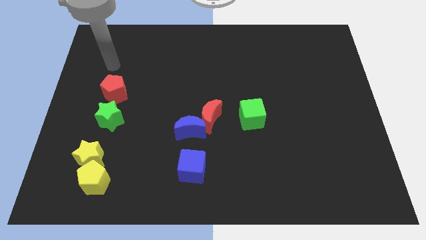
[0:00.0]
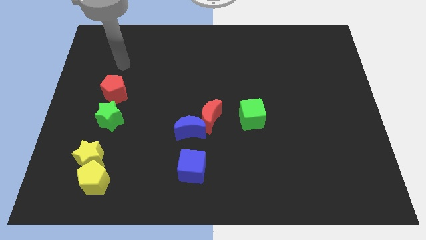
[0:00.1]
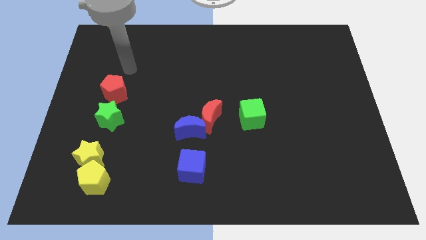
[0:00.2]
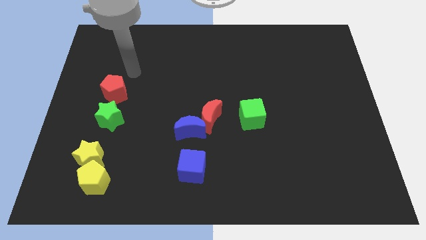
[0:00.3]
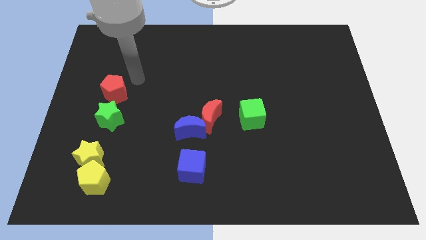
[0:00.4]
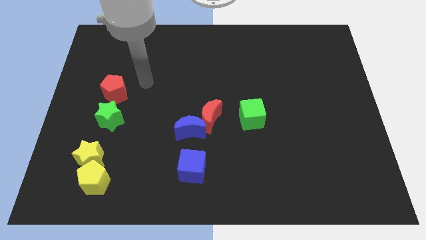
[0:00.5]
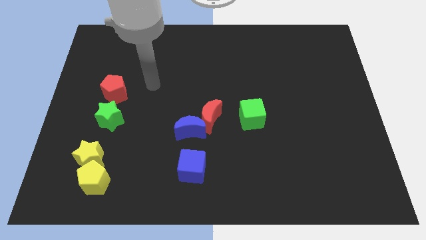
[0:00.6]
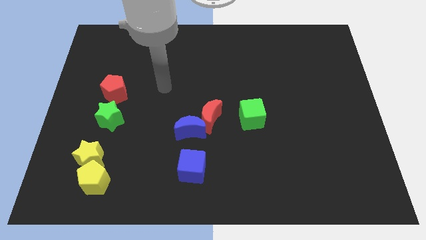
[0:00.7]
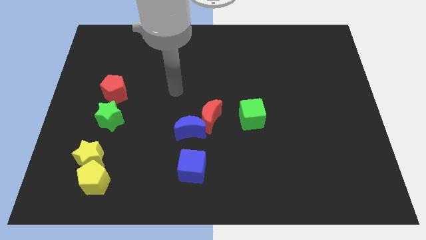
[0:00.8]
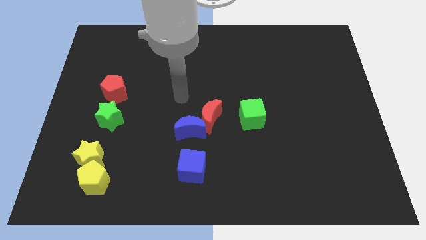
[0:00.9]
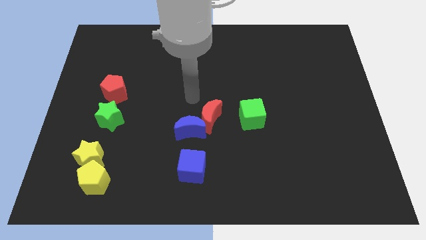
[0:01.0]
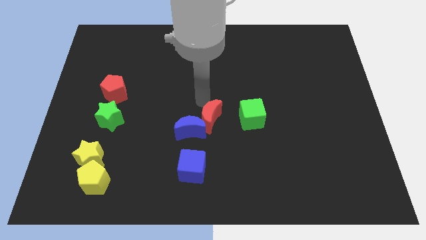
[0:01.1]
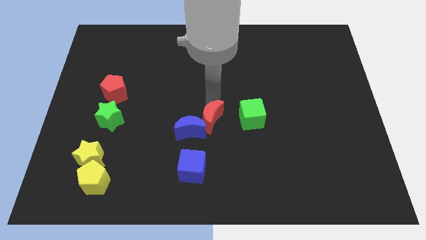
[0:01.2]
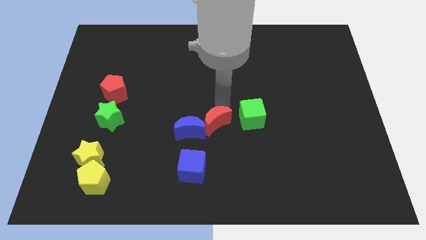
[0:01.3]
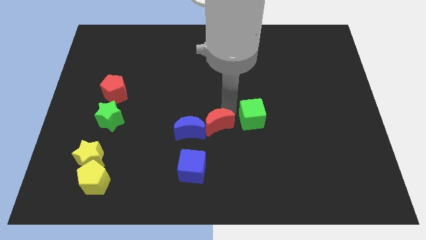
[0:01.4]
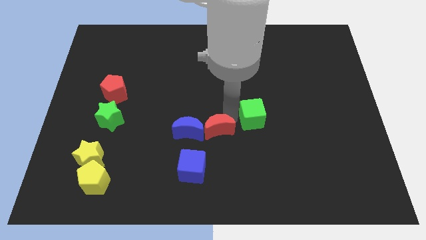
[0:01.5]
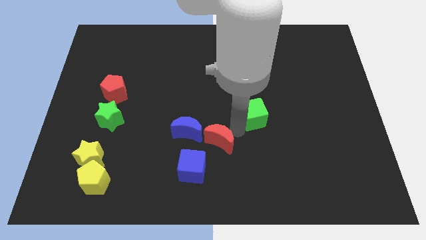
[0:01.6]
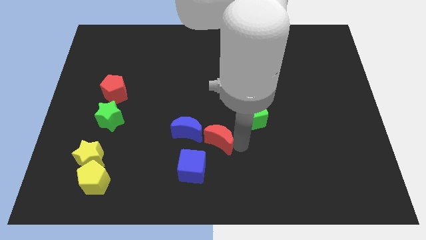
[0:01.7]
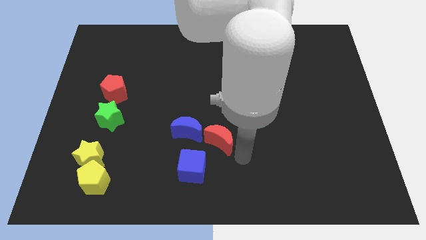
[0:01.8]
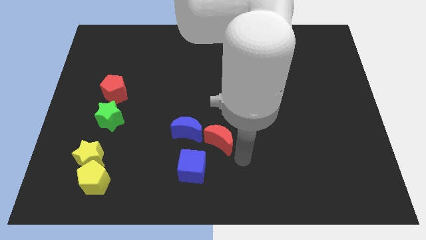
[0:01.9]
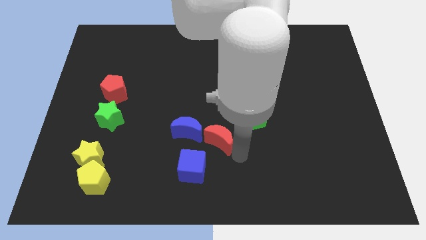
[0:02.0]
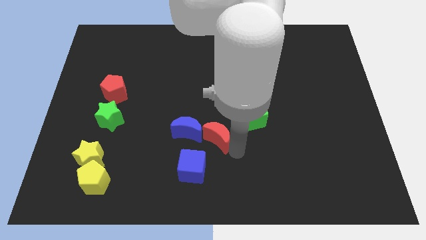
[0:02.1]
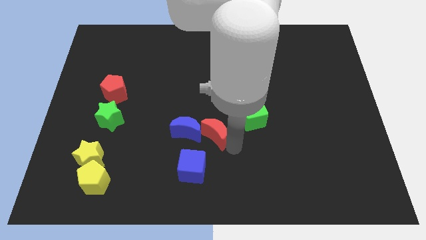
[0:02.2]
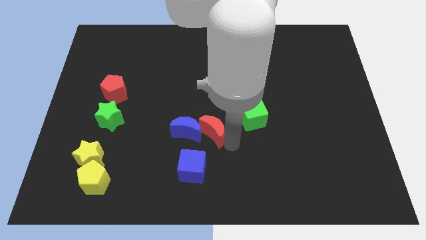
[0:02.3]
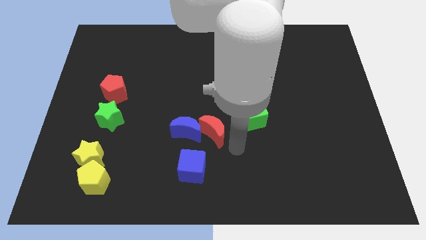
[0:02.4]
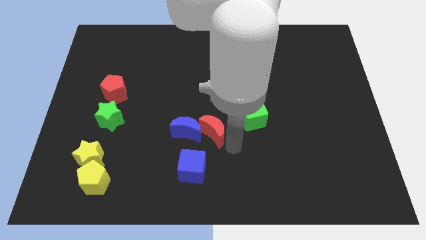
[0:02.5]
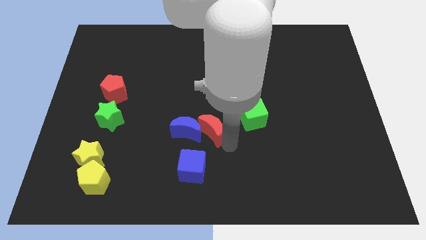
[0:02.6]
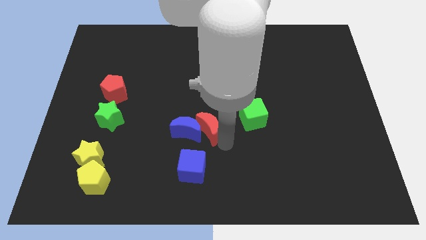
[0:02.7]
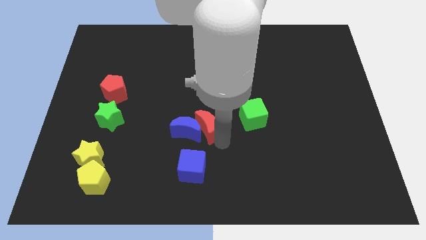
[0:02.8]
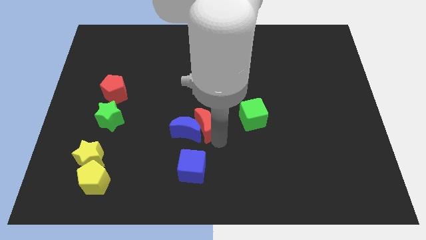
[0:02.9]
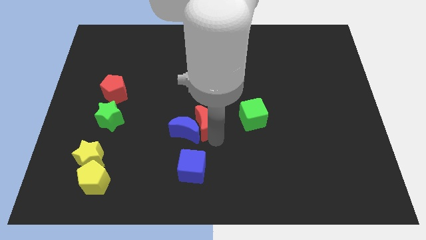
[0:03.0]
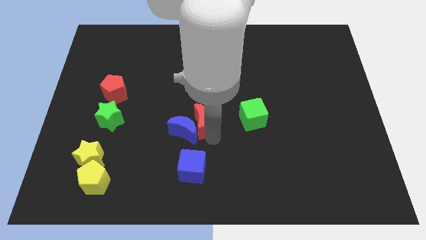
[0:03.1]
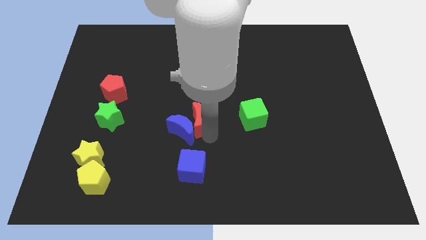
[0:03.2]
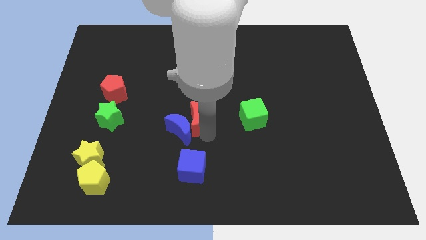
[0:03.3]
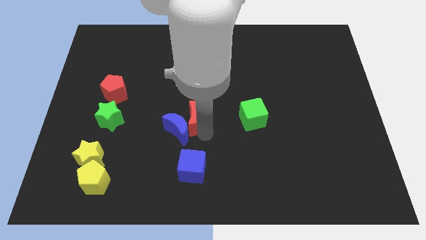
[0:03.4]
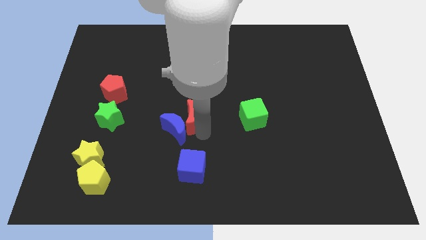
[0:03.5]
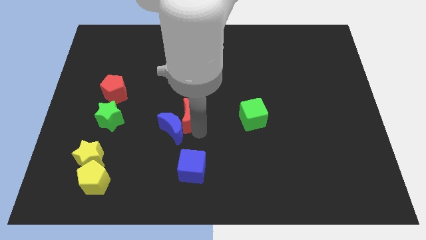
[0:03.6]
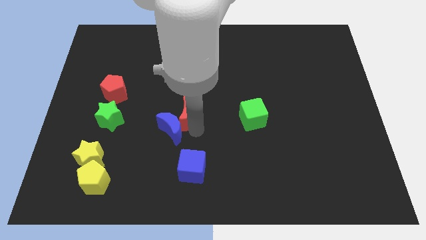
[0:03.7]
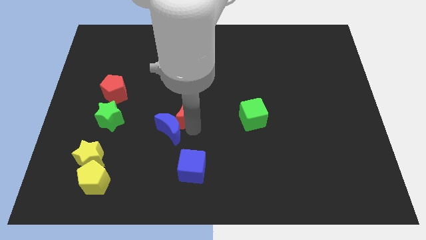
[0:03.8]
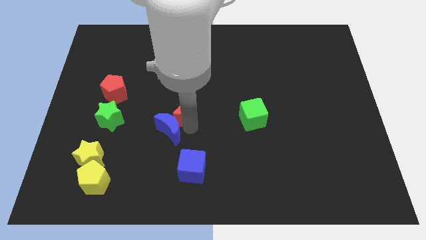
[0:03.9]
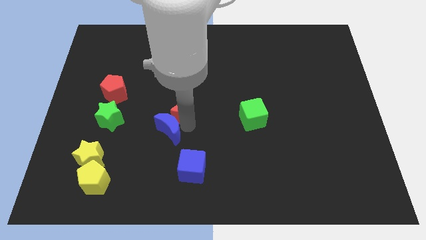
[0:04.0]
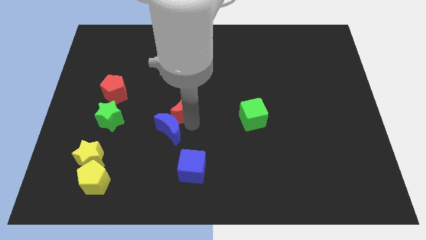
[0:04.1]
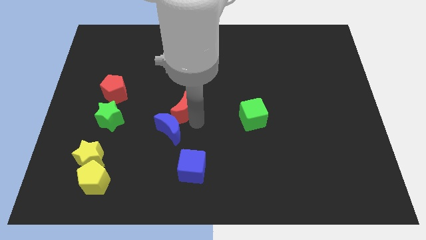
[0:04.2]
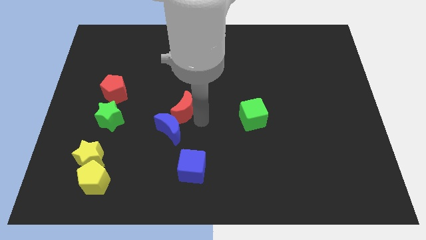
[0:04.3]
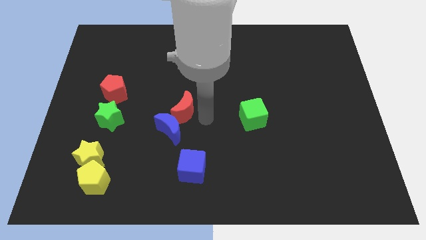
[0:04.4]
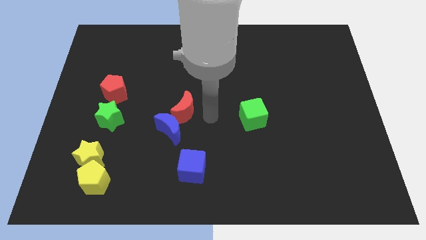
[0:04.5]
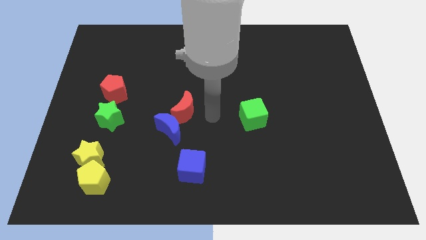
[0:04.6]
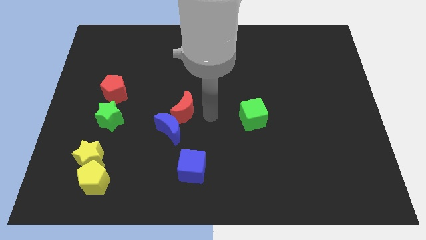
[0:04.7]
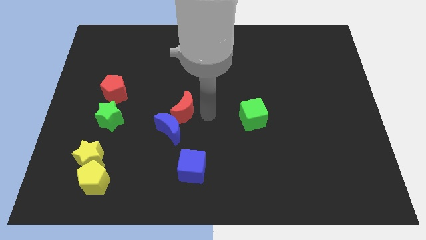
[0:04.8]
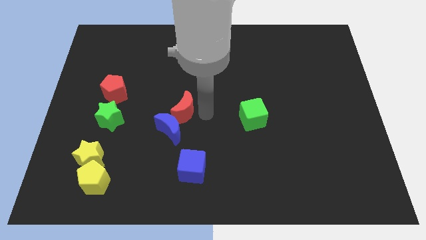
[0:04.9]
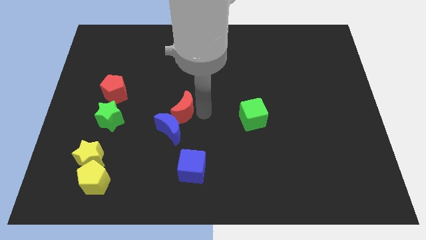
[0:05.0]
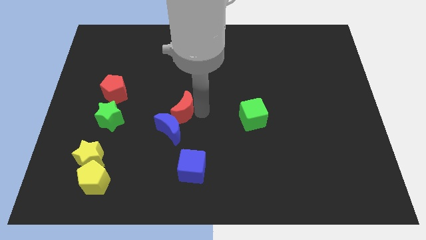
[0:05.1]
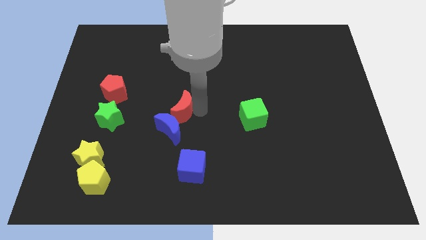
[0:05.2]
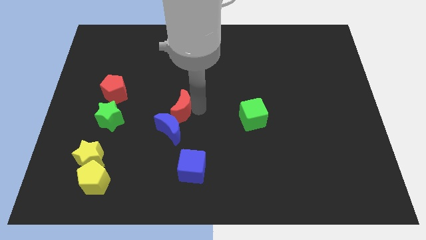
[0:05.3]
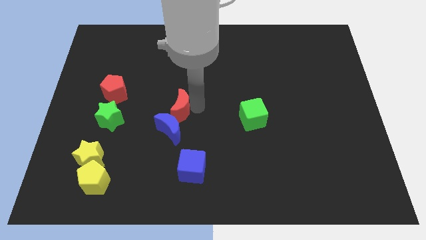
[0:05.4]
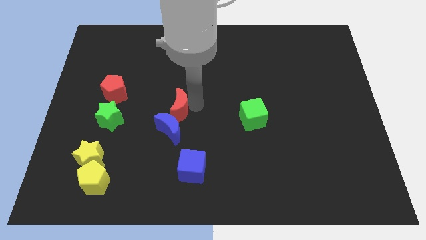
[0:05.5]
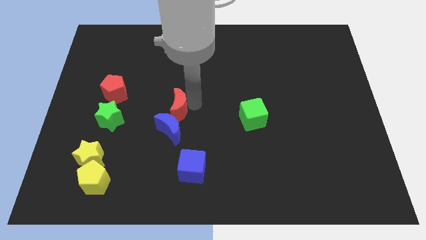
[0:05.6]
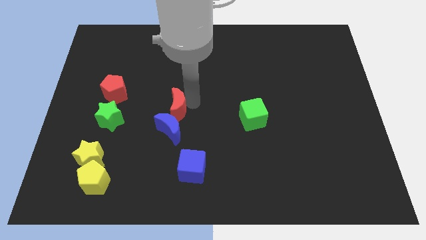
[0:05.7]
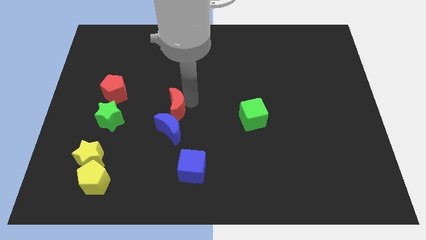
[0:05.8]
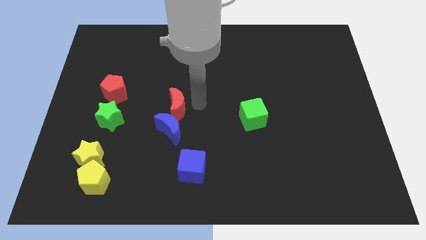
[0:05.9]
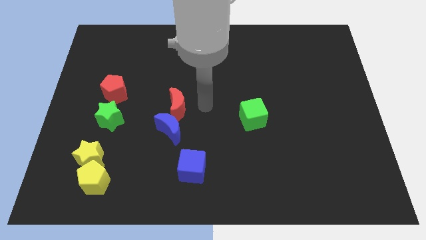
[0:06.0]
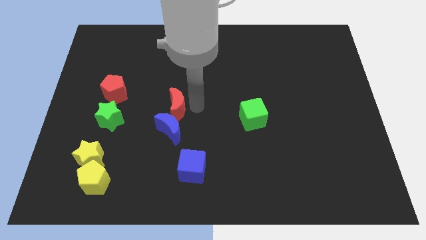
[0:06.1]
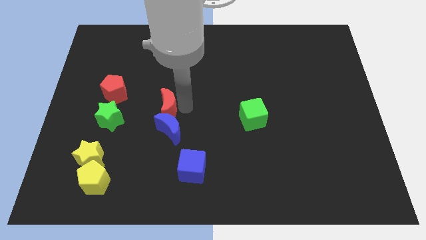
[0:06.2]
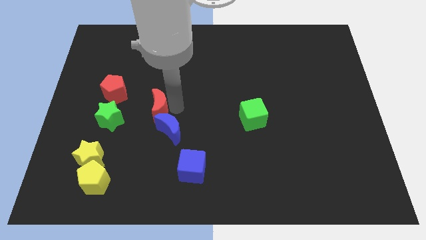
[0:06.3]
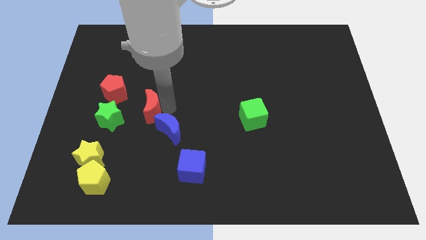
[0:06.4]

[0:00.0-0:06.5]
push the red moon to the bottom right of the red pentagon

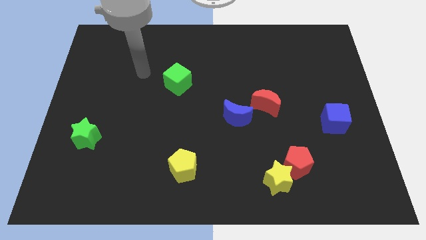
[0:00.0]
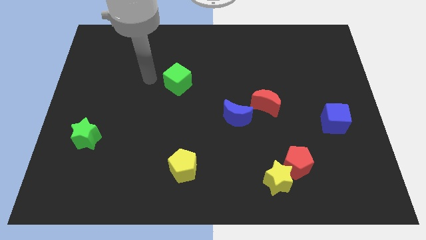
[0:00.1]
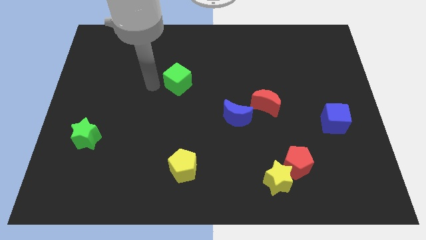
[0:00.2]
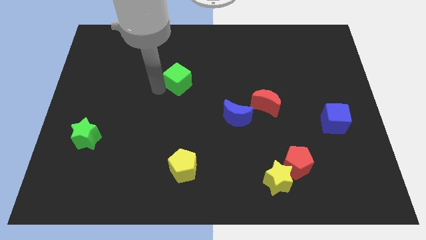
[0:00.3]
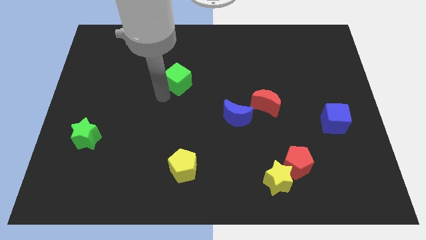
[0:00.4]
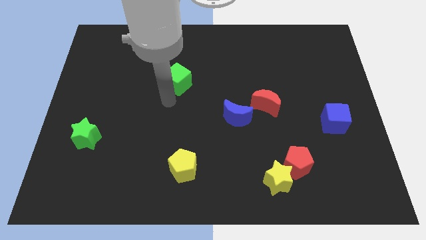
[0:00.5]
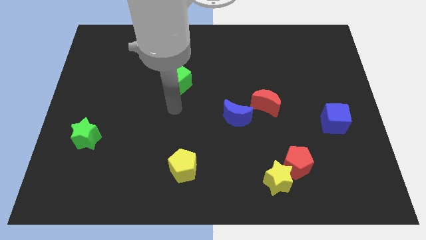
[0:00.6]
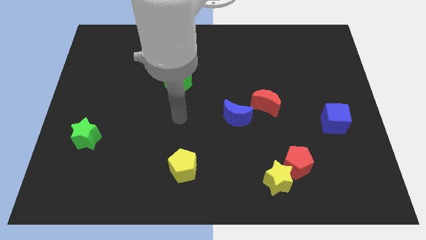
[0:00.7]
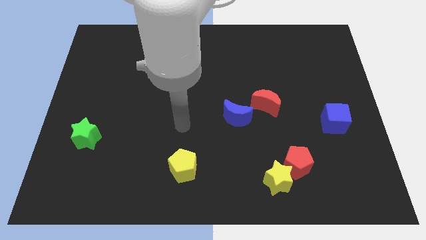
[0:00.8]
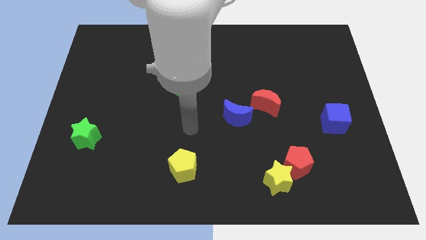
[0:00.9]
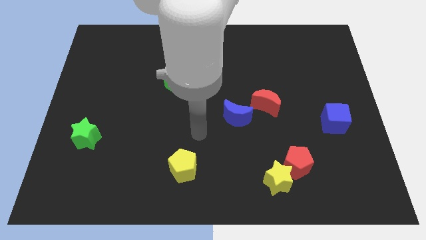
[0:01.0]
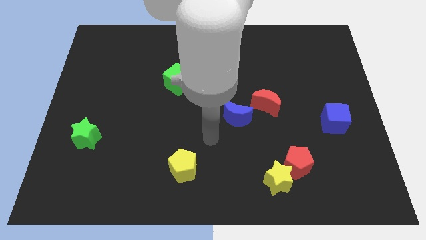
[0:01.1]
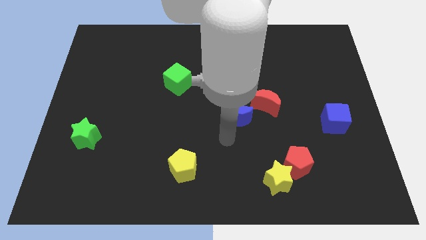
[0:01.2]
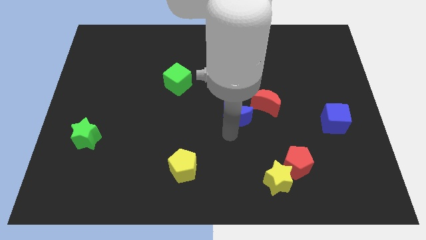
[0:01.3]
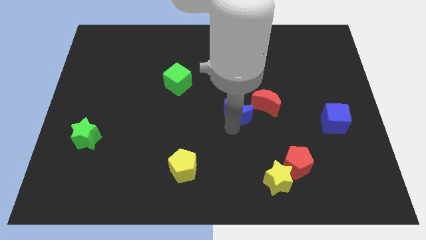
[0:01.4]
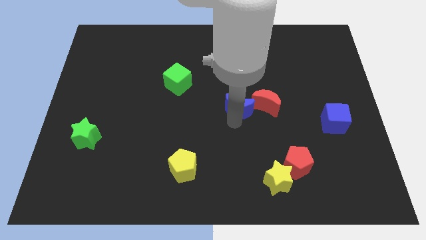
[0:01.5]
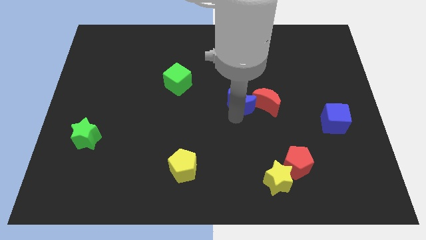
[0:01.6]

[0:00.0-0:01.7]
put the blue moon to the top left of the red moon
